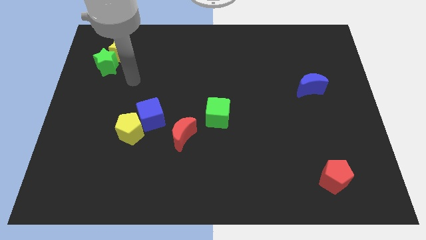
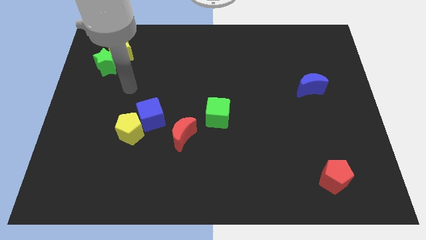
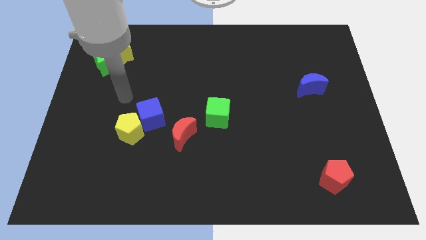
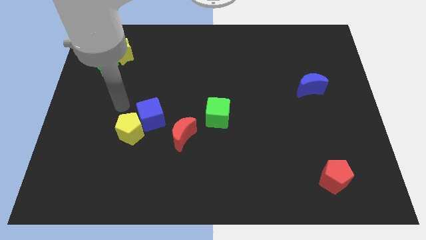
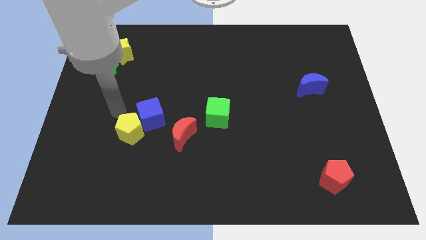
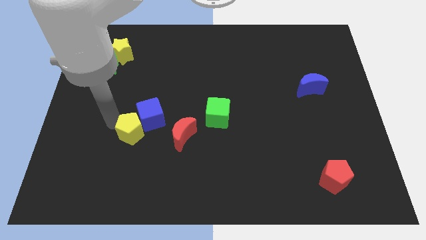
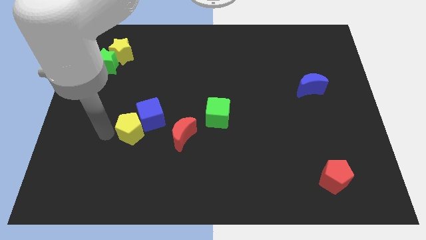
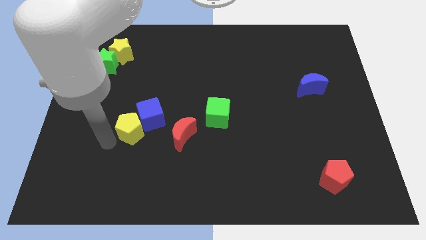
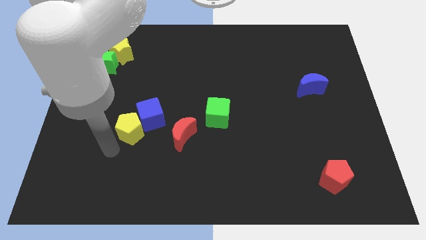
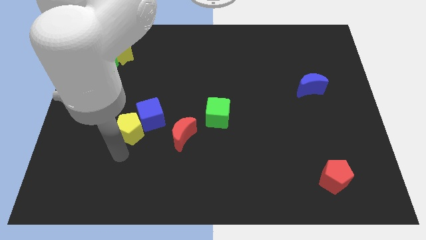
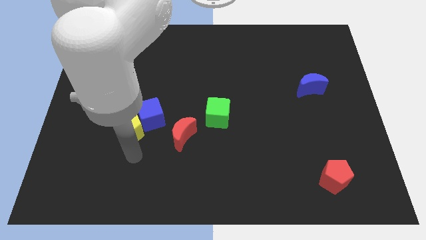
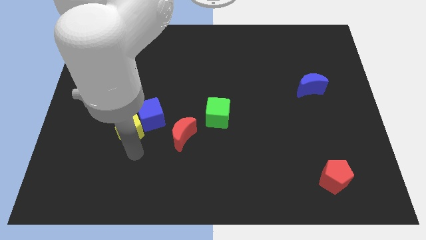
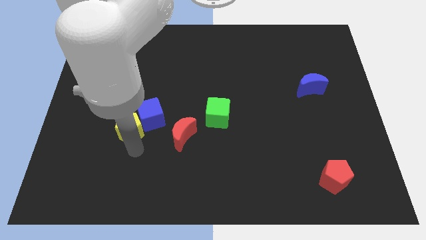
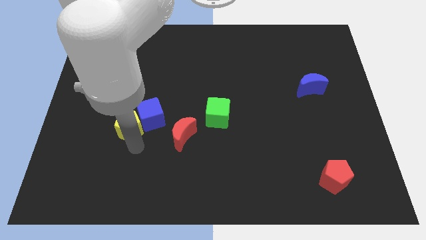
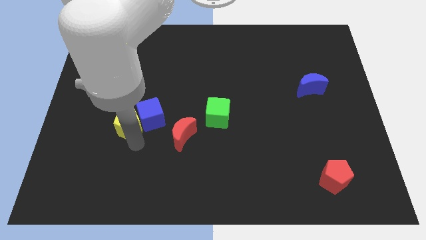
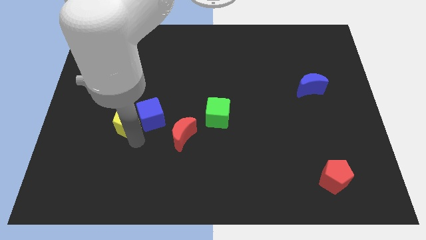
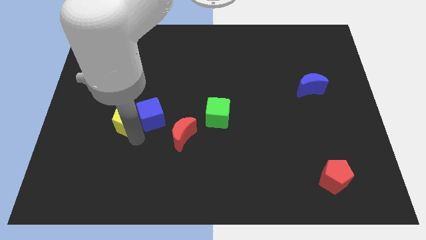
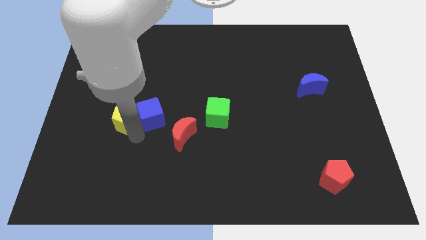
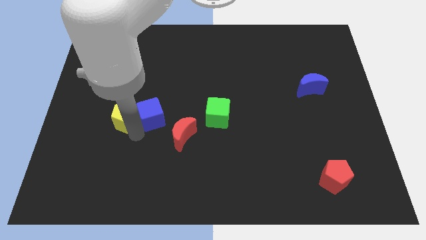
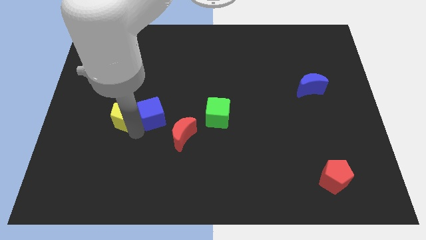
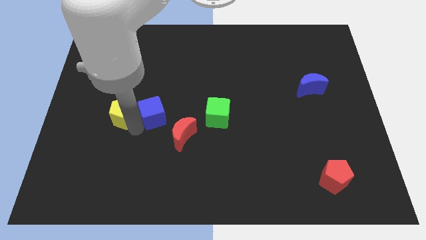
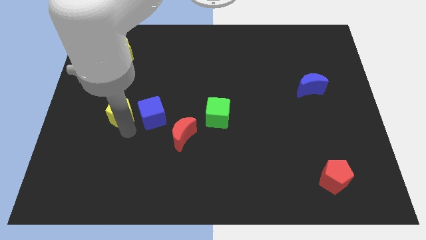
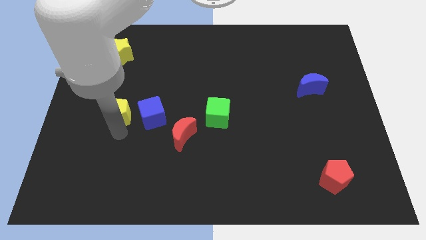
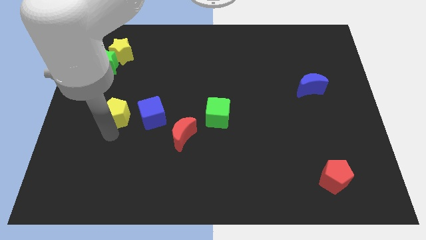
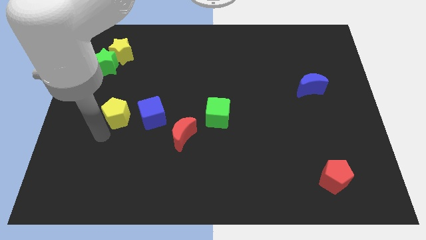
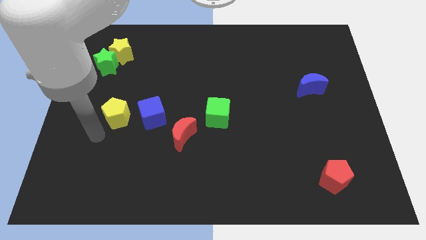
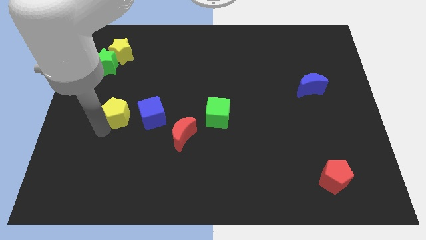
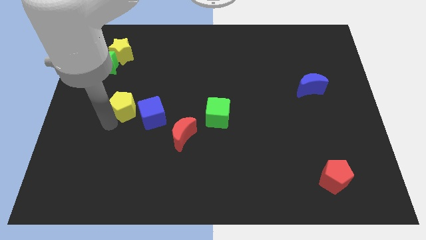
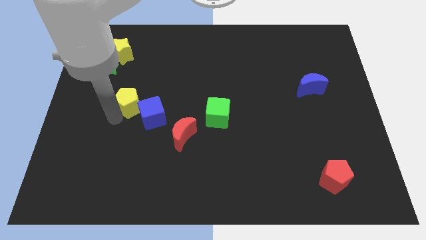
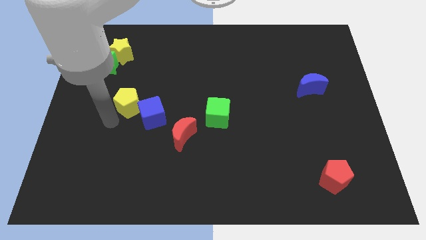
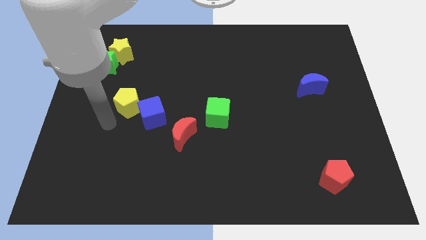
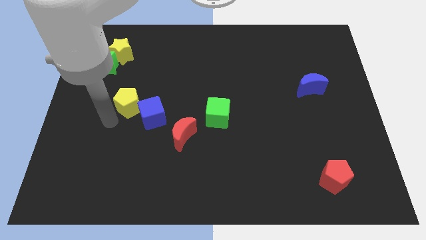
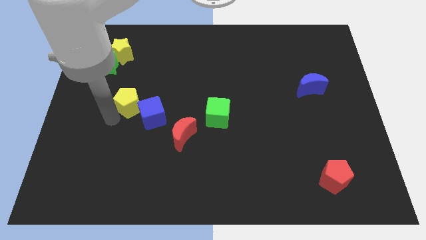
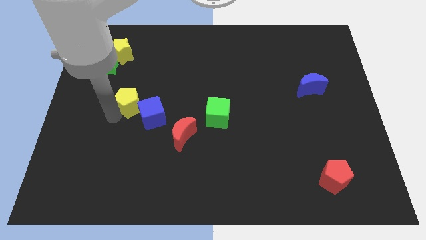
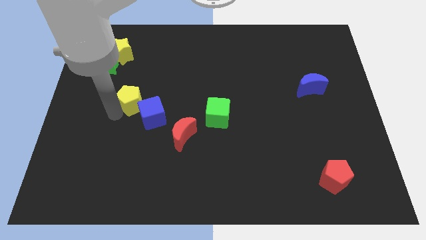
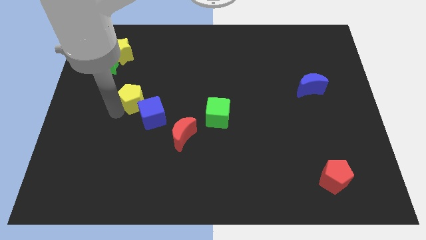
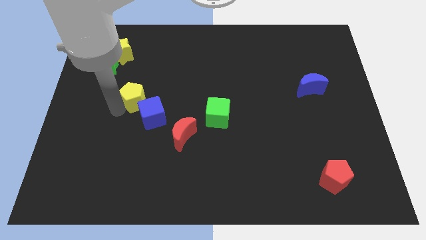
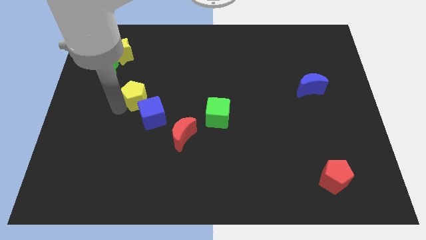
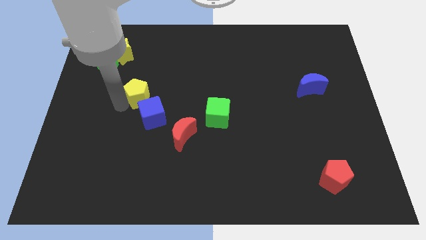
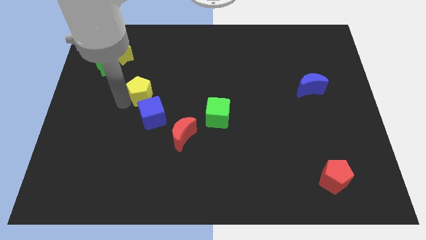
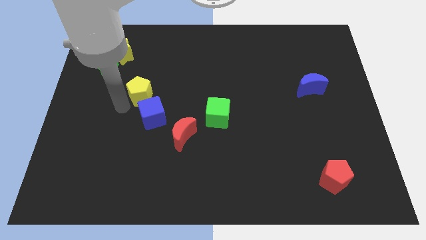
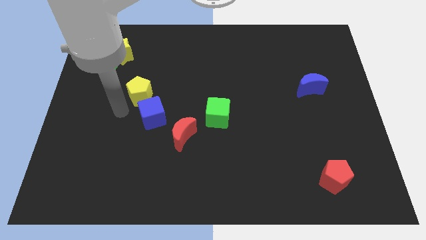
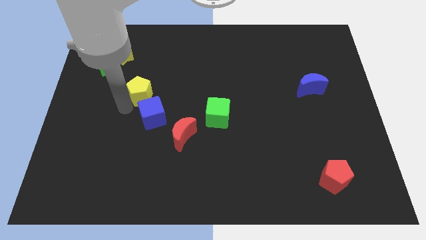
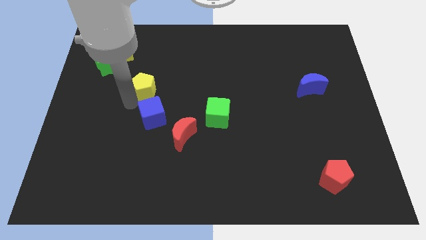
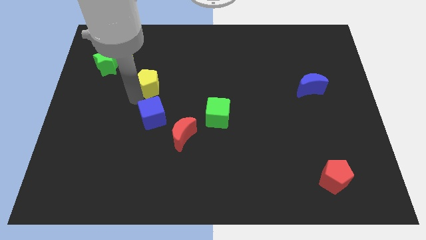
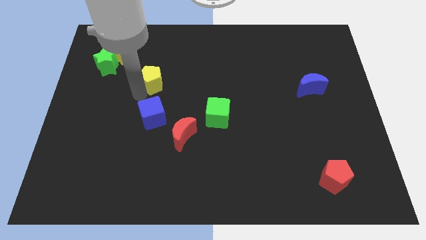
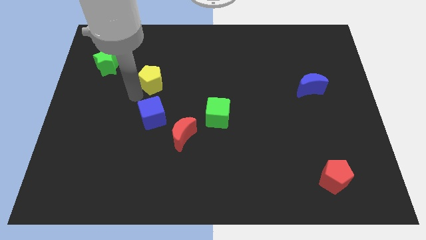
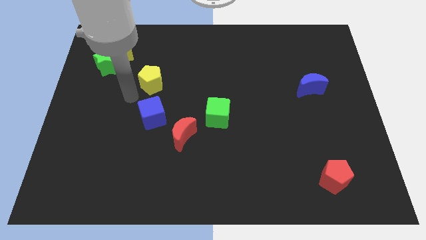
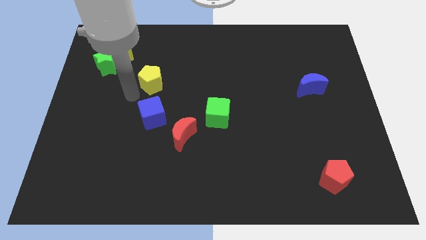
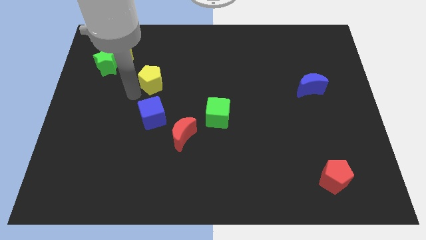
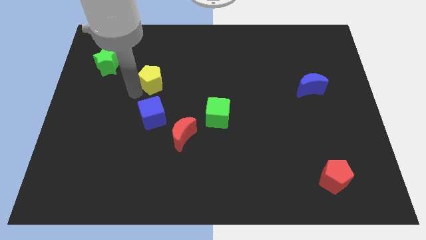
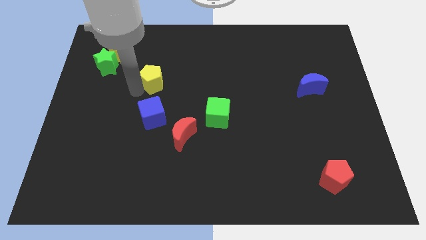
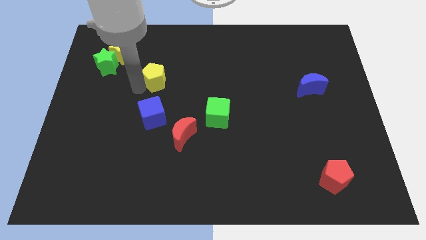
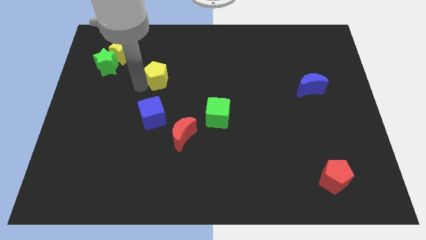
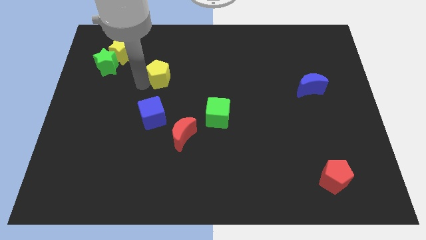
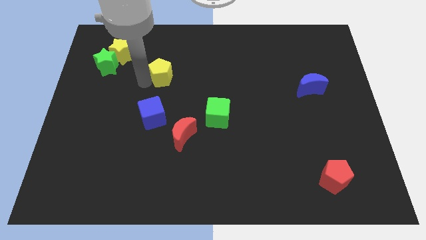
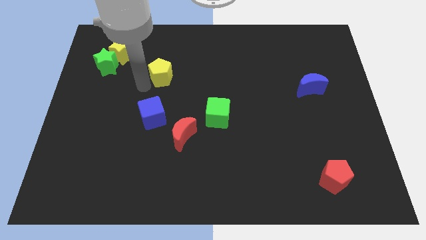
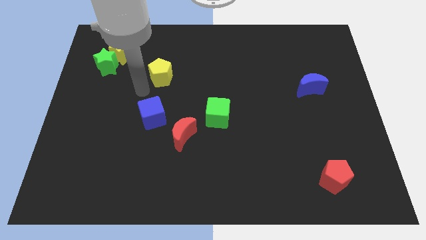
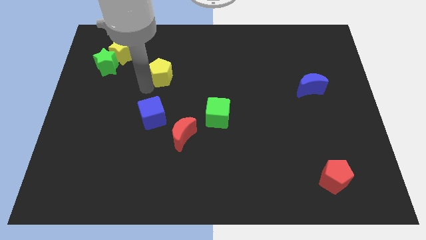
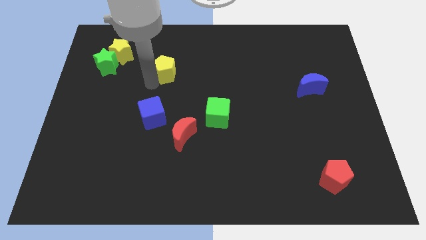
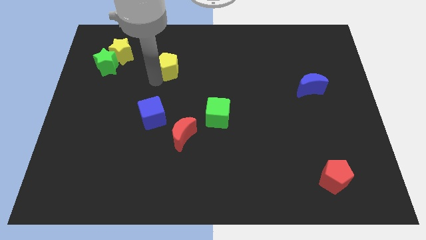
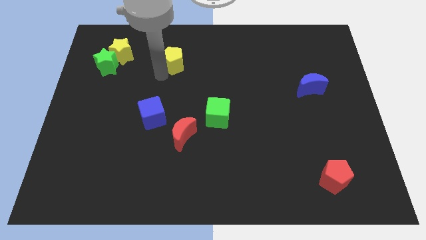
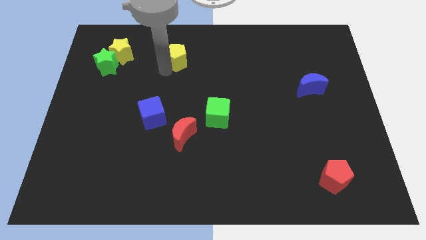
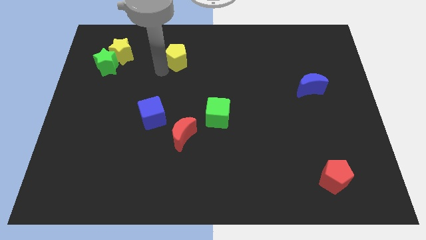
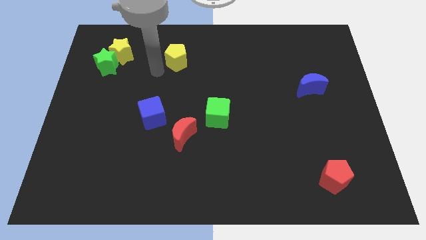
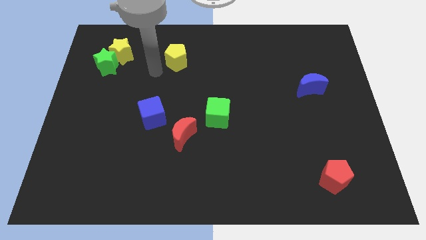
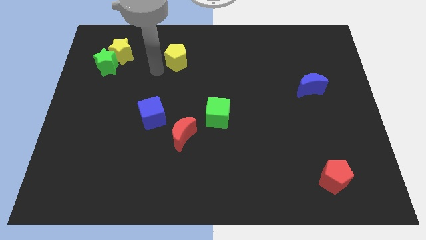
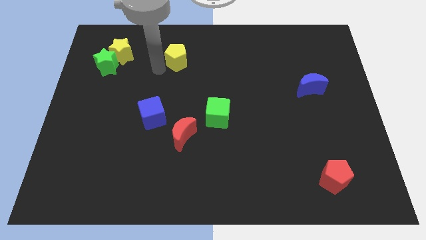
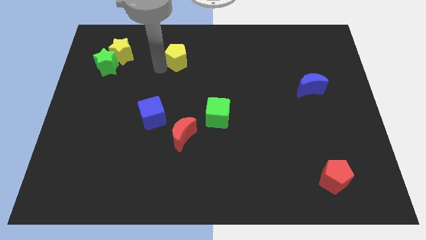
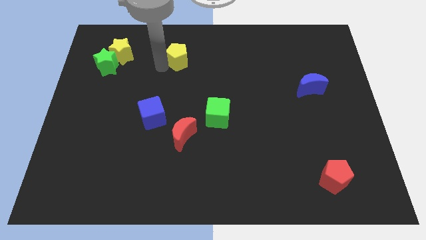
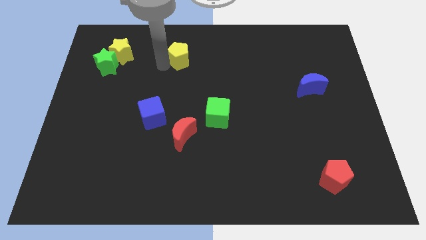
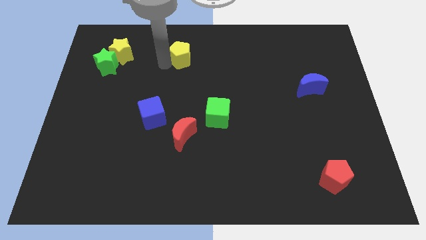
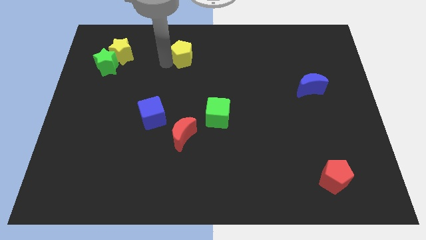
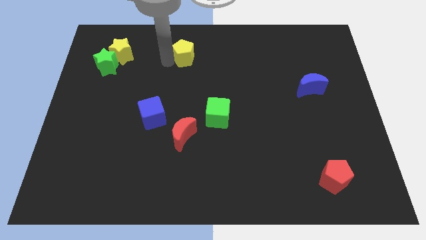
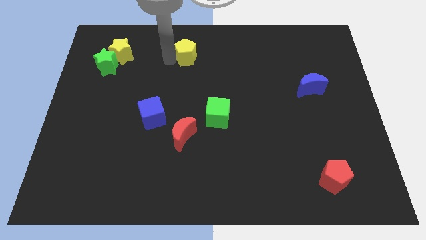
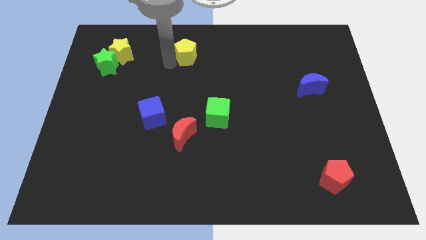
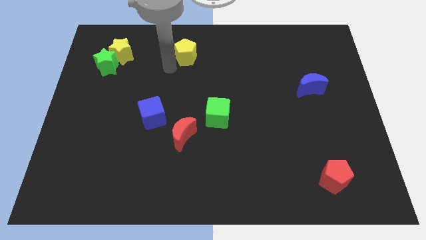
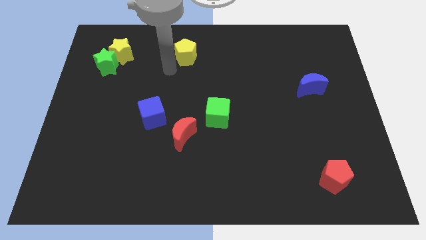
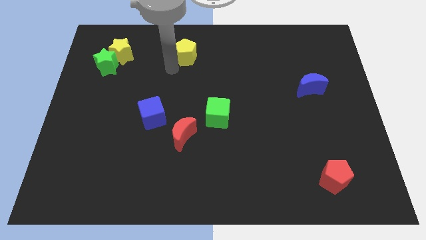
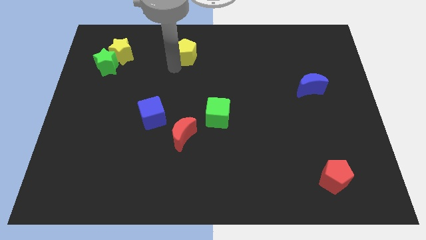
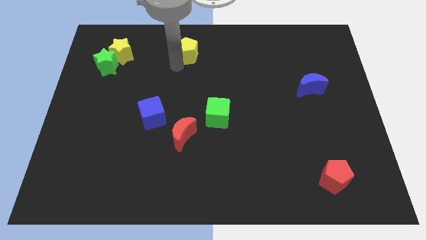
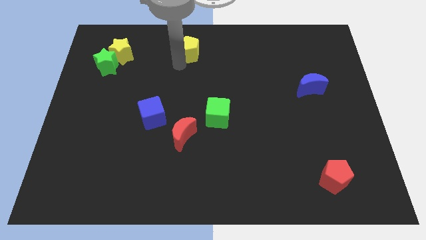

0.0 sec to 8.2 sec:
move the yellow pentagon to the top
